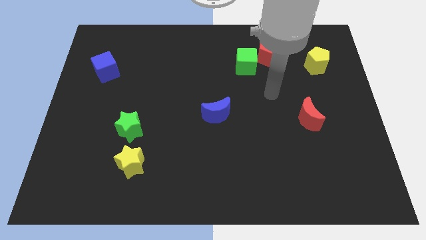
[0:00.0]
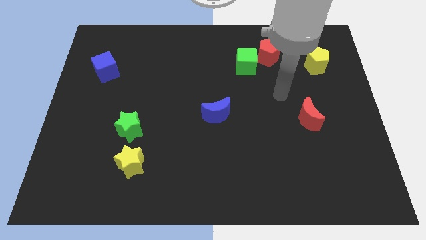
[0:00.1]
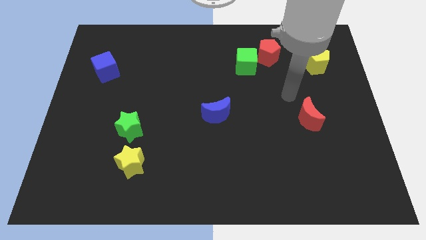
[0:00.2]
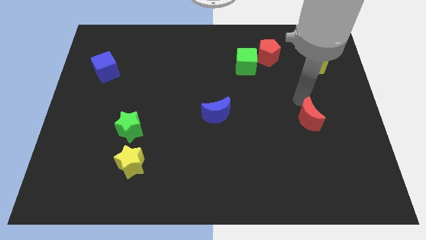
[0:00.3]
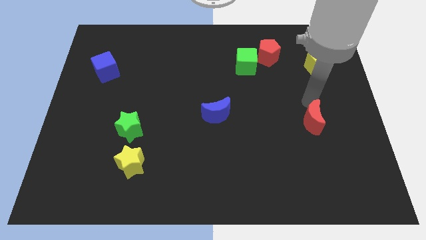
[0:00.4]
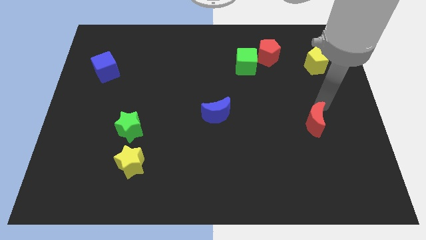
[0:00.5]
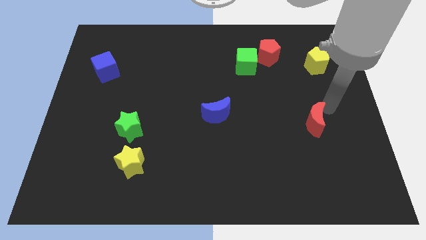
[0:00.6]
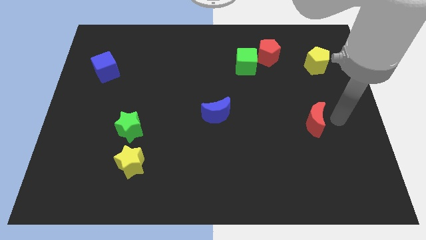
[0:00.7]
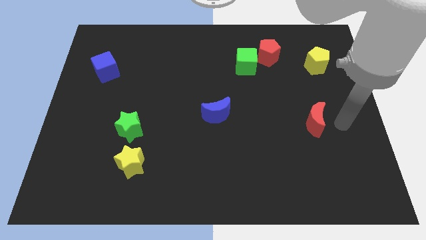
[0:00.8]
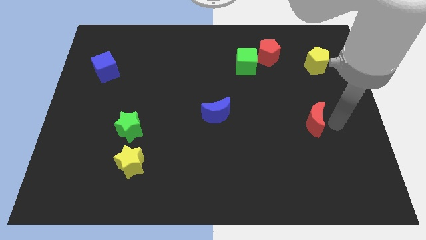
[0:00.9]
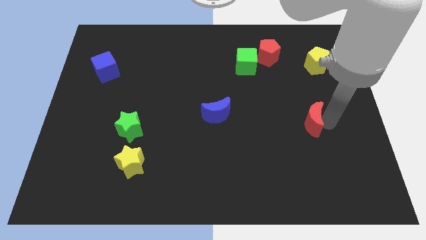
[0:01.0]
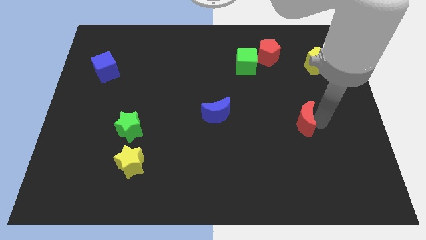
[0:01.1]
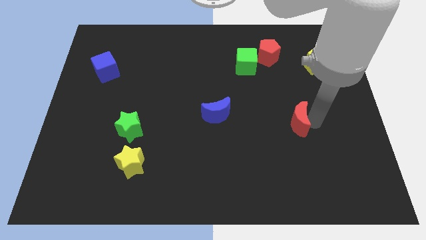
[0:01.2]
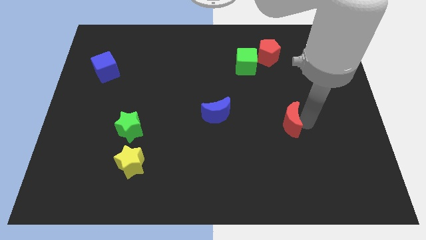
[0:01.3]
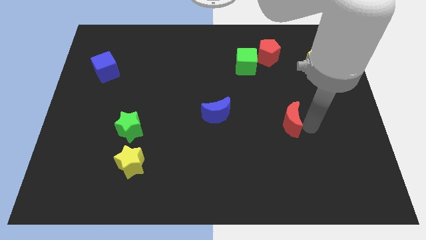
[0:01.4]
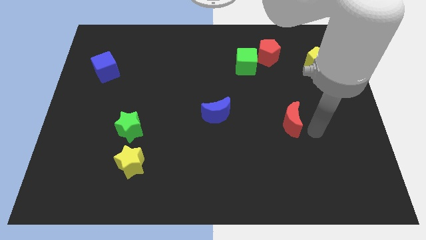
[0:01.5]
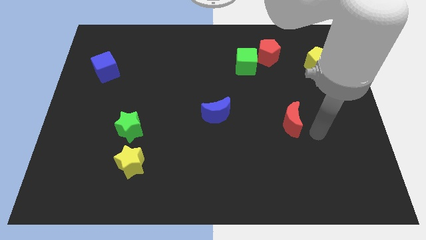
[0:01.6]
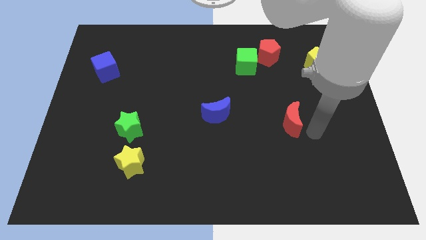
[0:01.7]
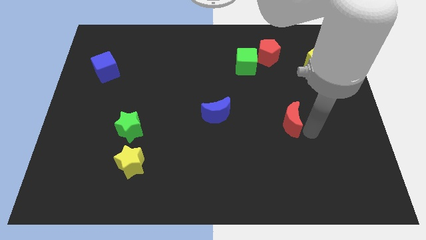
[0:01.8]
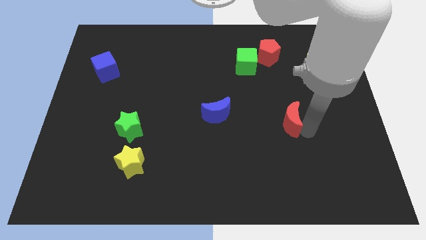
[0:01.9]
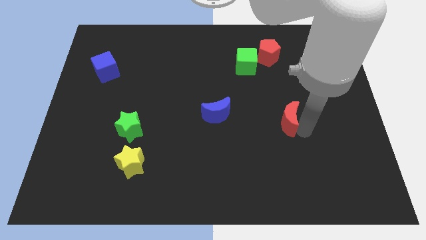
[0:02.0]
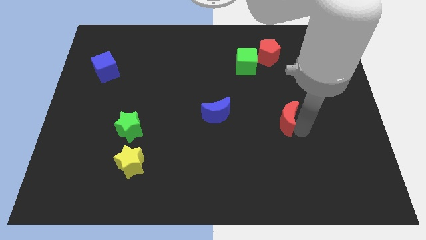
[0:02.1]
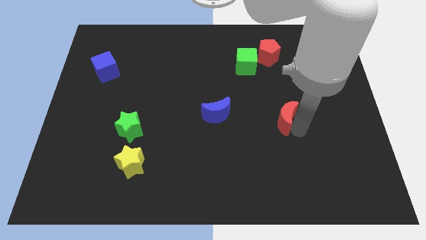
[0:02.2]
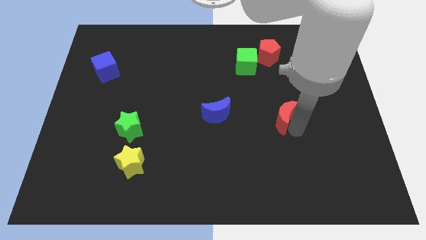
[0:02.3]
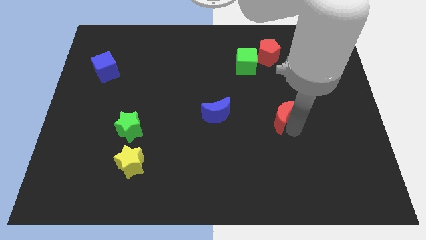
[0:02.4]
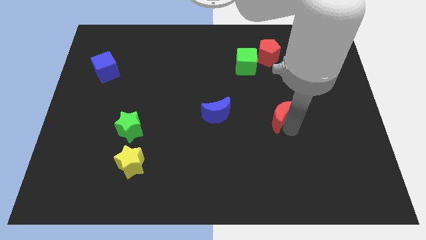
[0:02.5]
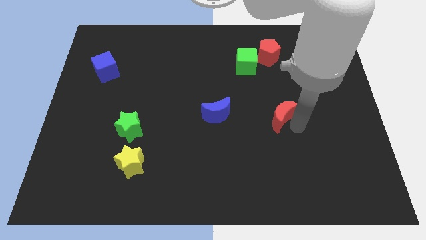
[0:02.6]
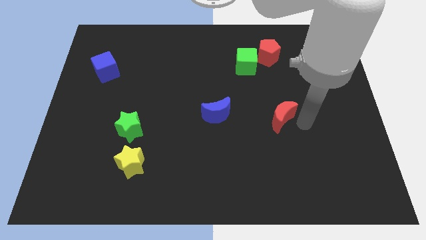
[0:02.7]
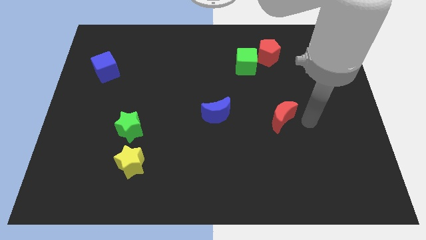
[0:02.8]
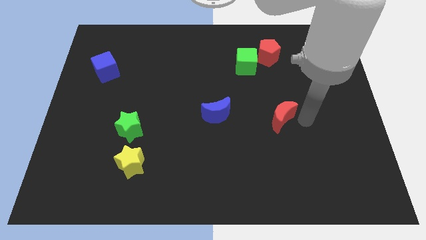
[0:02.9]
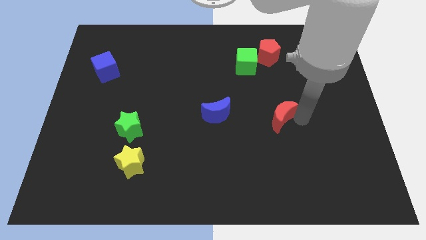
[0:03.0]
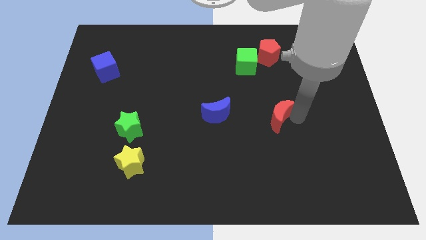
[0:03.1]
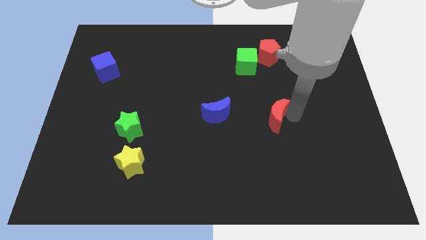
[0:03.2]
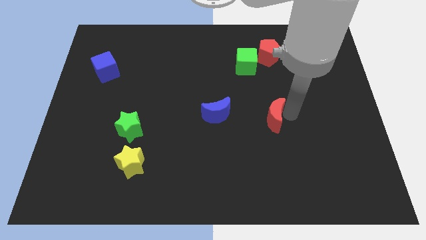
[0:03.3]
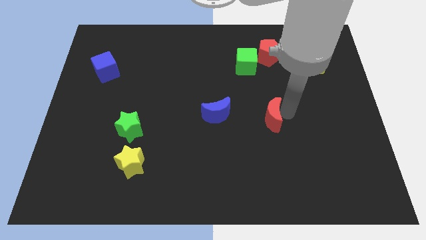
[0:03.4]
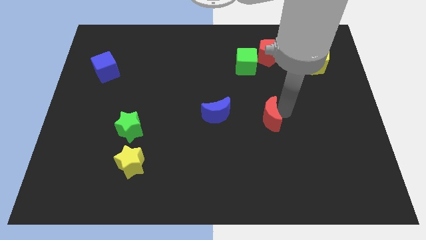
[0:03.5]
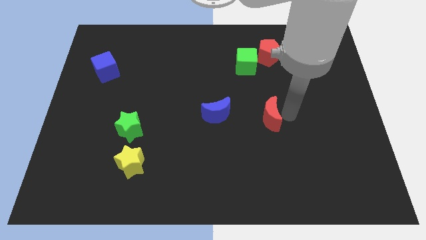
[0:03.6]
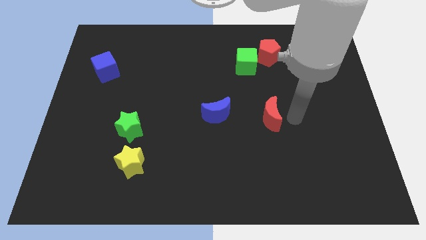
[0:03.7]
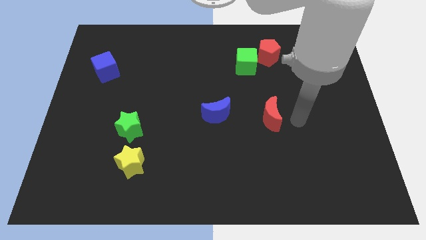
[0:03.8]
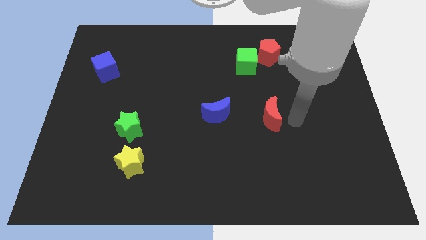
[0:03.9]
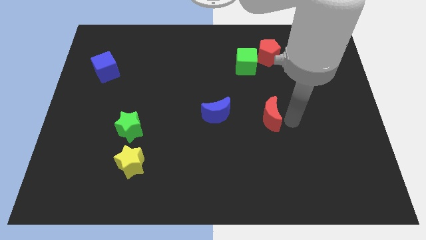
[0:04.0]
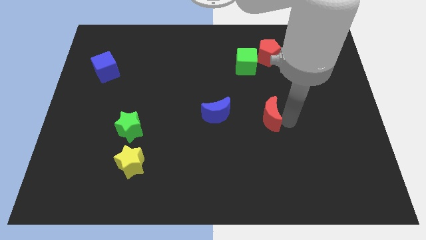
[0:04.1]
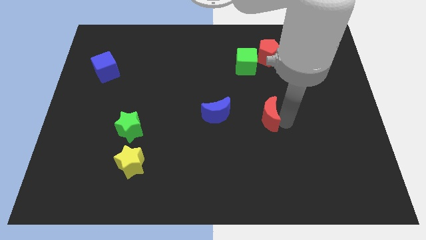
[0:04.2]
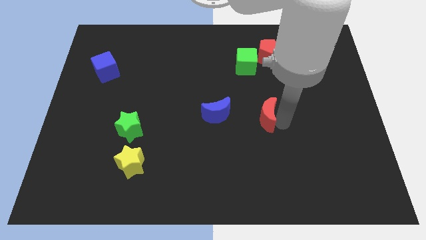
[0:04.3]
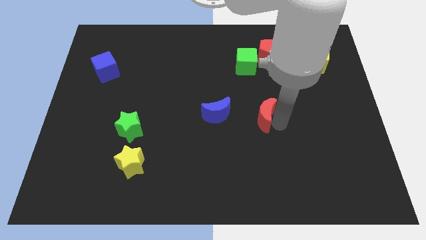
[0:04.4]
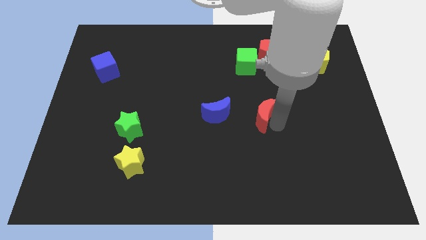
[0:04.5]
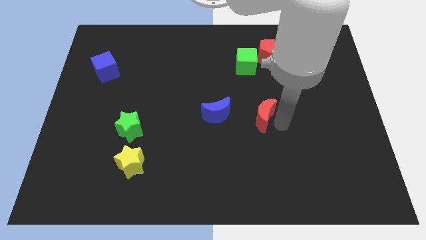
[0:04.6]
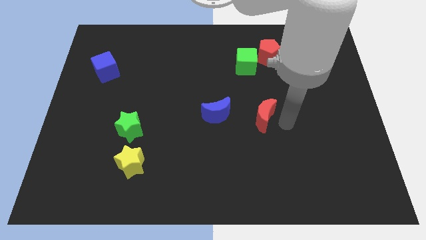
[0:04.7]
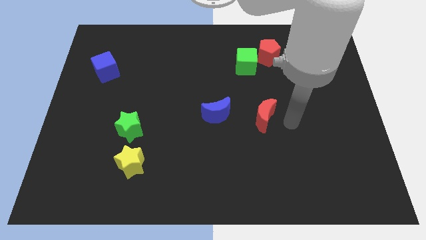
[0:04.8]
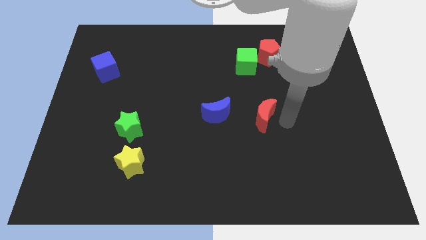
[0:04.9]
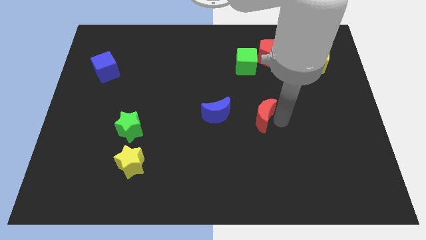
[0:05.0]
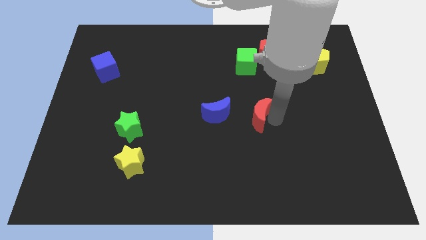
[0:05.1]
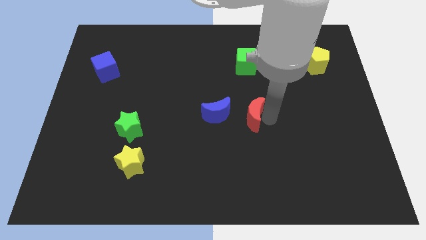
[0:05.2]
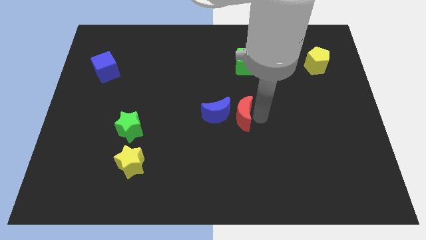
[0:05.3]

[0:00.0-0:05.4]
slide the red moon to the blue moon

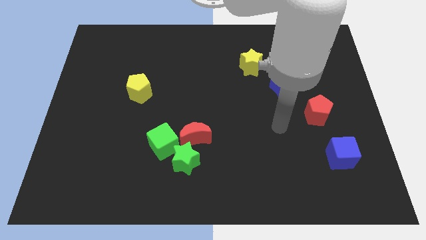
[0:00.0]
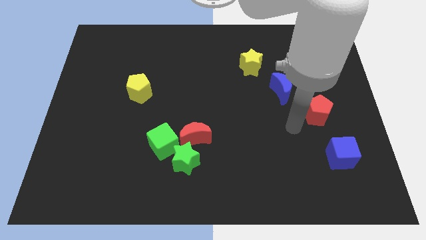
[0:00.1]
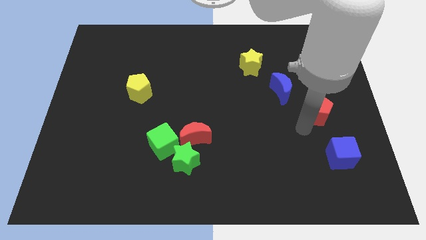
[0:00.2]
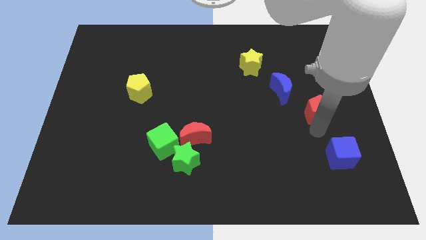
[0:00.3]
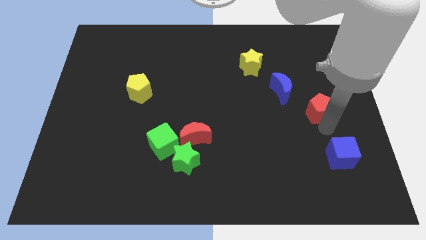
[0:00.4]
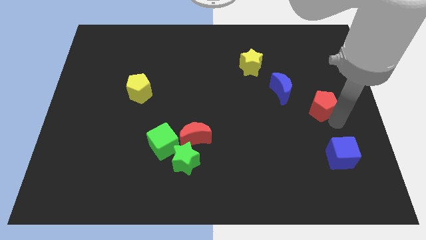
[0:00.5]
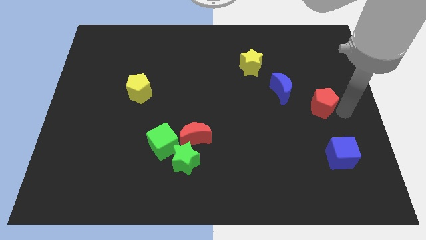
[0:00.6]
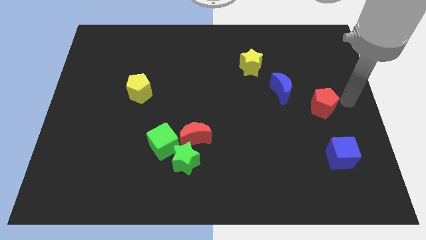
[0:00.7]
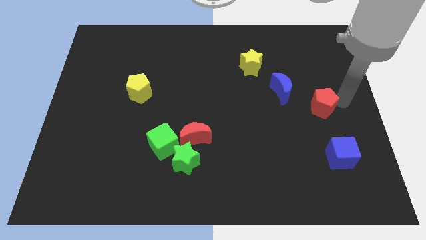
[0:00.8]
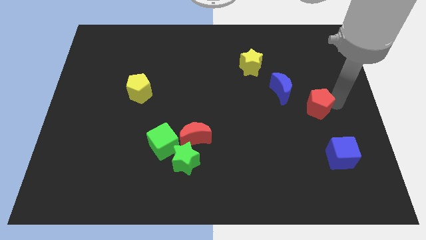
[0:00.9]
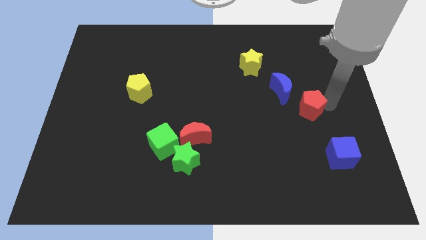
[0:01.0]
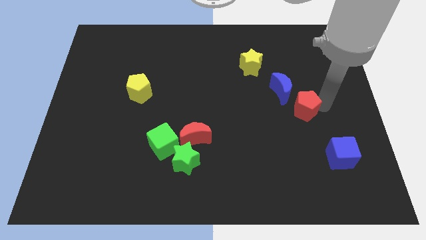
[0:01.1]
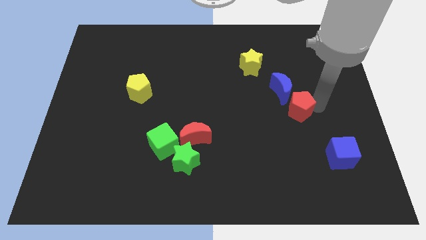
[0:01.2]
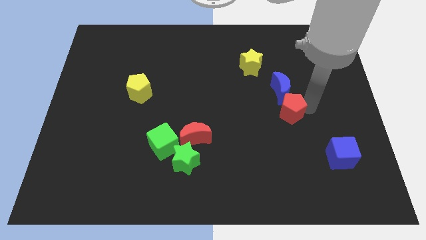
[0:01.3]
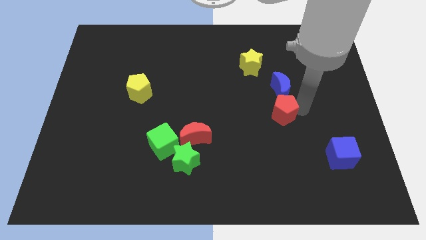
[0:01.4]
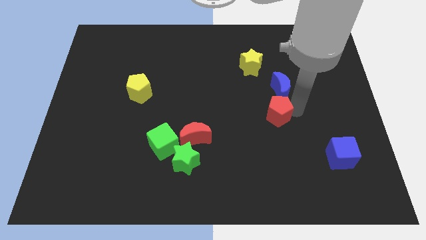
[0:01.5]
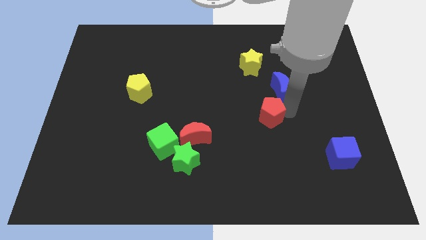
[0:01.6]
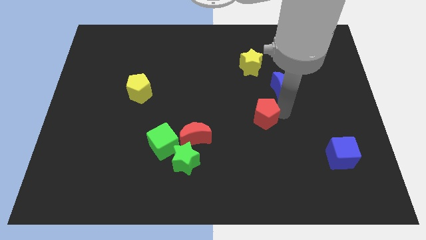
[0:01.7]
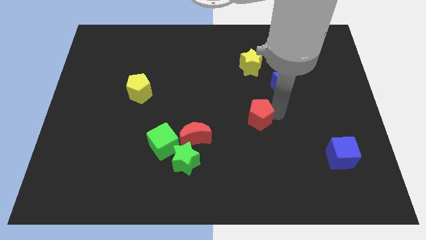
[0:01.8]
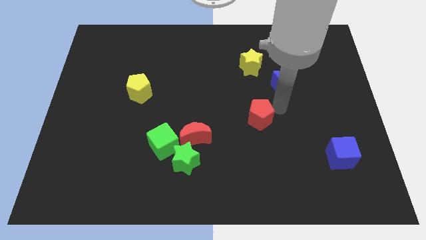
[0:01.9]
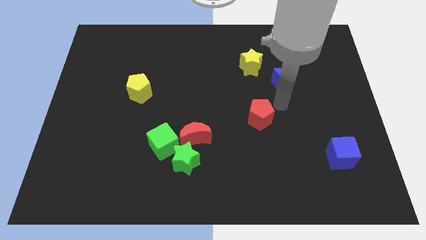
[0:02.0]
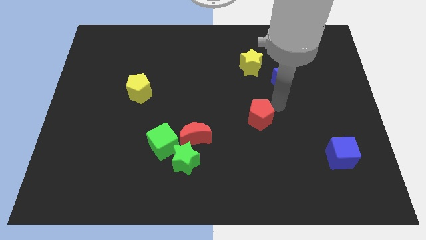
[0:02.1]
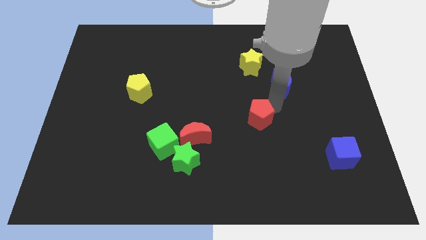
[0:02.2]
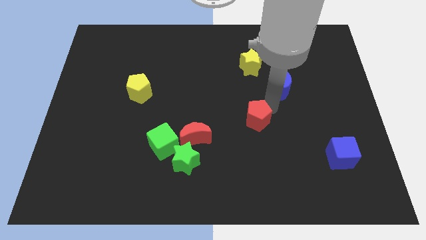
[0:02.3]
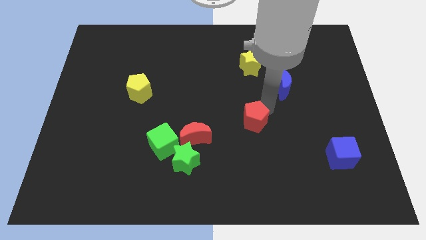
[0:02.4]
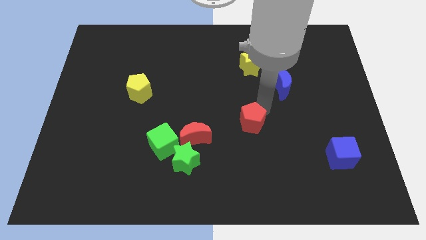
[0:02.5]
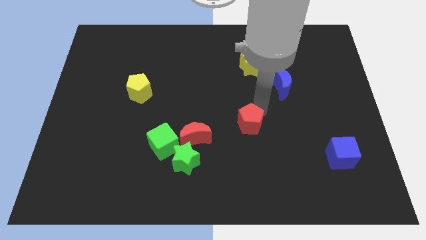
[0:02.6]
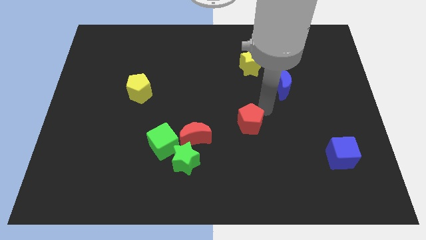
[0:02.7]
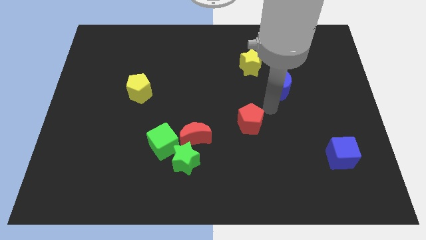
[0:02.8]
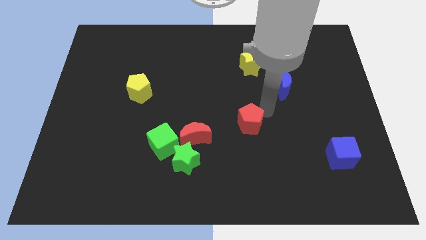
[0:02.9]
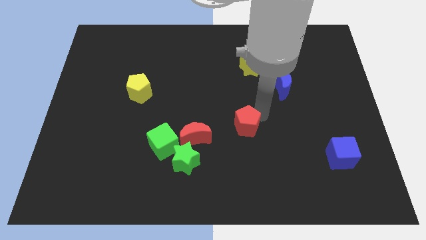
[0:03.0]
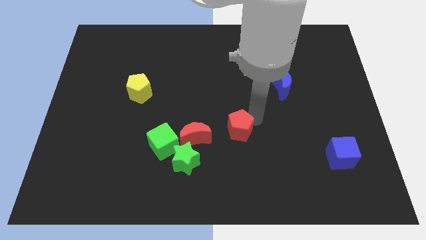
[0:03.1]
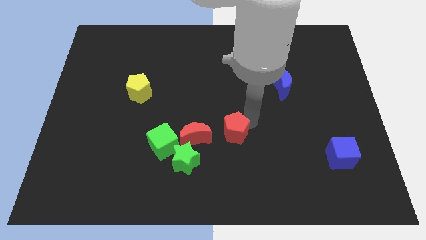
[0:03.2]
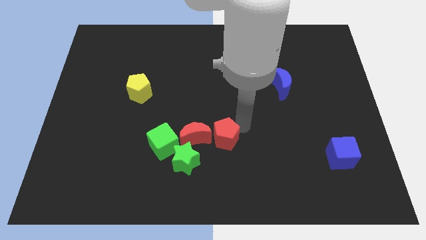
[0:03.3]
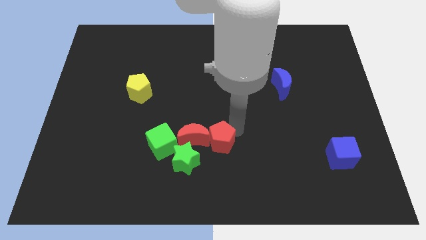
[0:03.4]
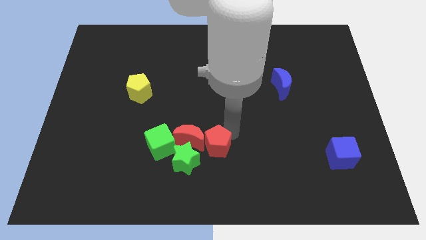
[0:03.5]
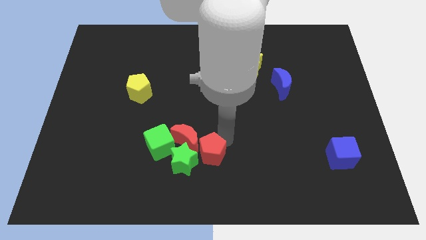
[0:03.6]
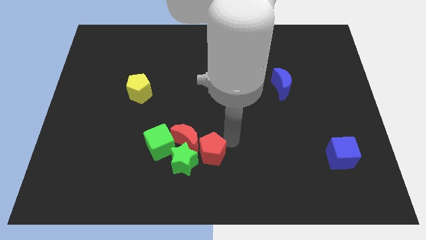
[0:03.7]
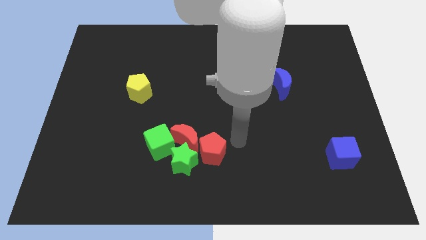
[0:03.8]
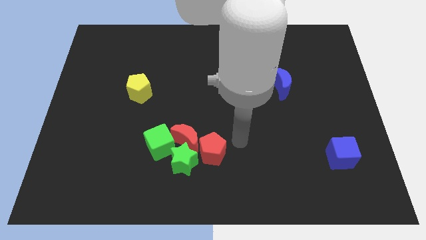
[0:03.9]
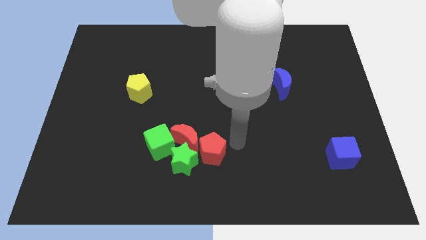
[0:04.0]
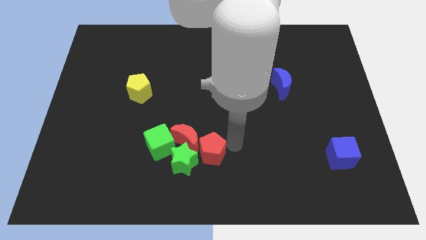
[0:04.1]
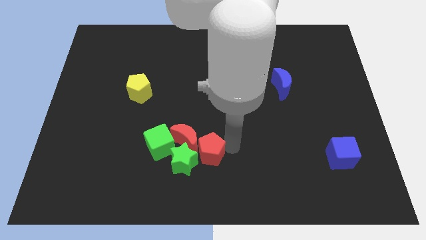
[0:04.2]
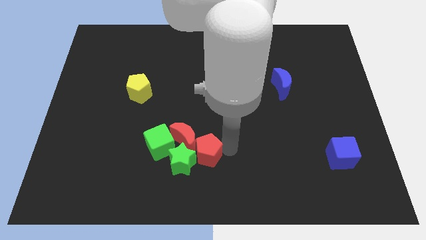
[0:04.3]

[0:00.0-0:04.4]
put the red pentagon next to the green star
